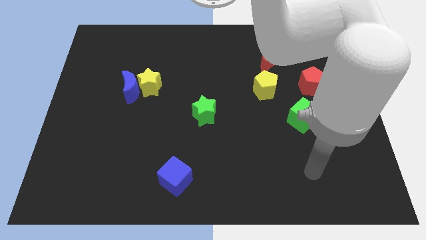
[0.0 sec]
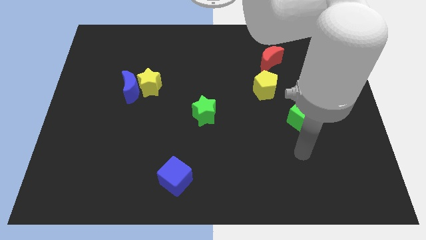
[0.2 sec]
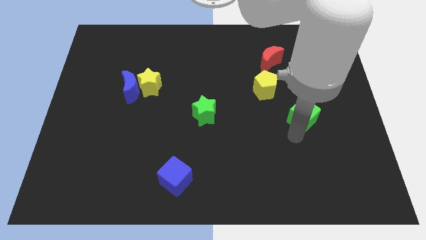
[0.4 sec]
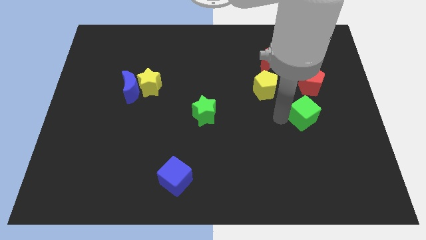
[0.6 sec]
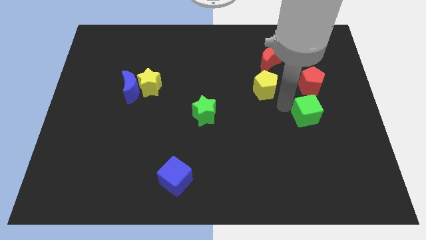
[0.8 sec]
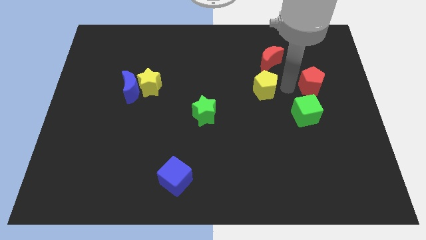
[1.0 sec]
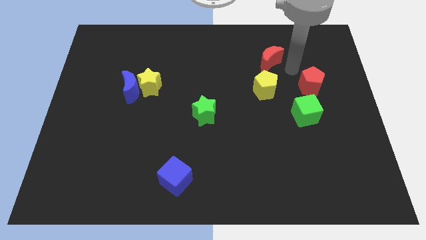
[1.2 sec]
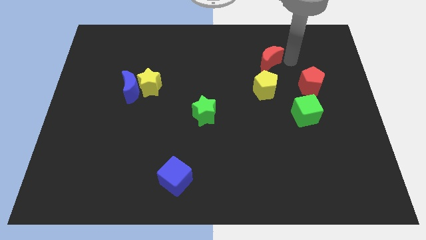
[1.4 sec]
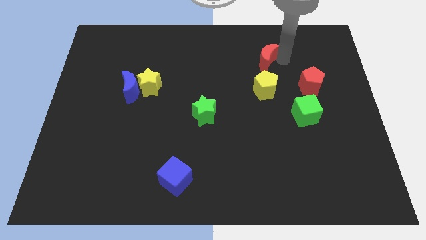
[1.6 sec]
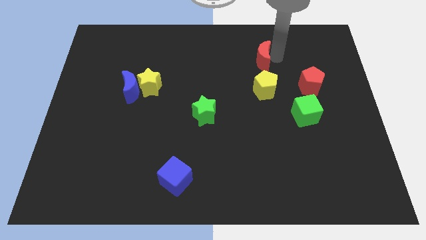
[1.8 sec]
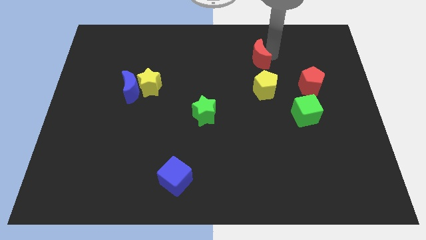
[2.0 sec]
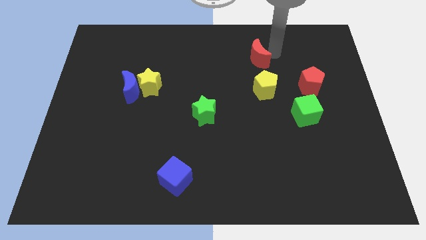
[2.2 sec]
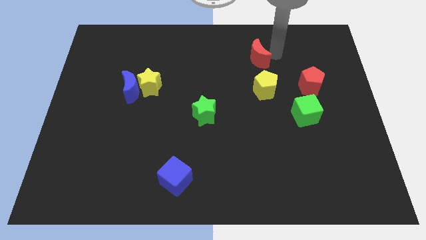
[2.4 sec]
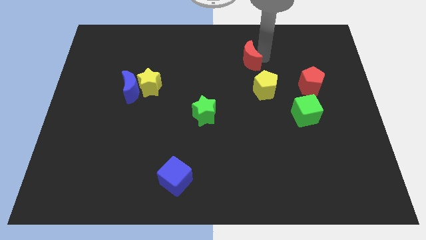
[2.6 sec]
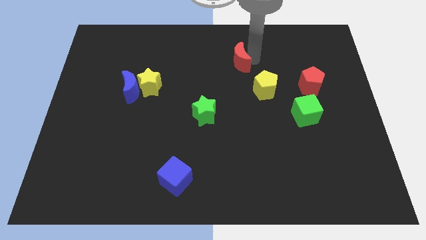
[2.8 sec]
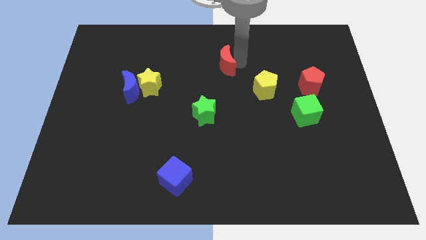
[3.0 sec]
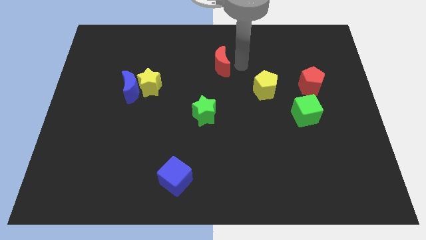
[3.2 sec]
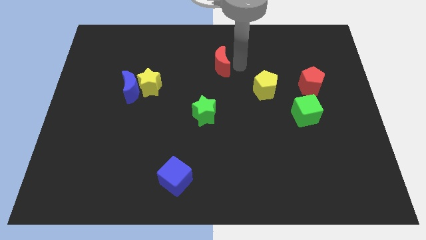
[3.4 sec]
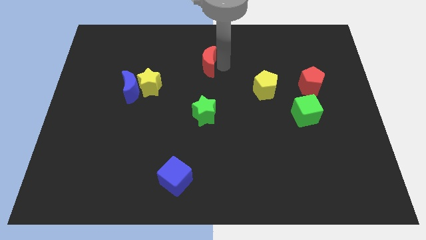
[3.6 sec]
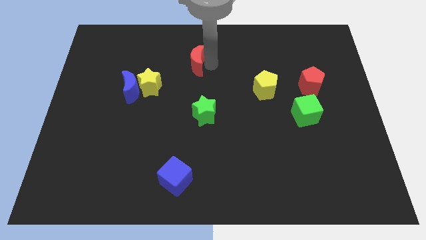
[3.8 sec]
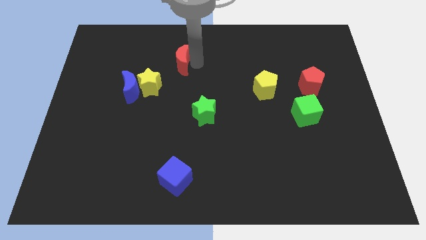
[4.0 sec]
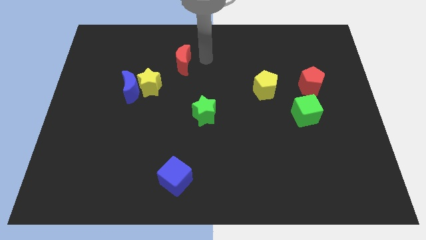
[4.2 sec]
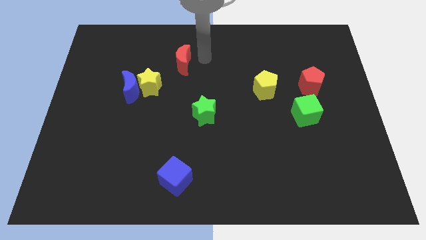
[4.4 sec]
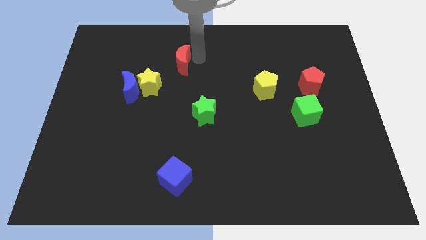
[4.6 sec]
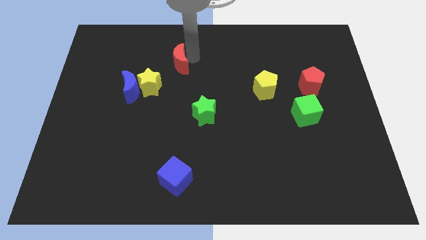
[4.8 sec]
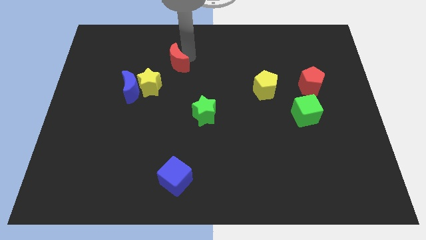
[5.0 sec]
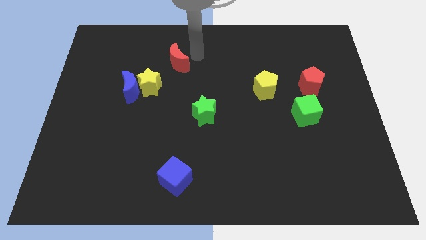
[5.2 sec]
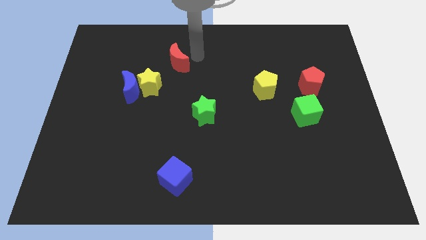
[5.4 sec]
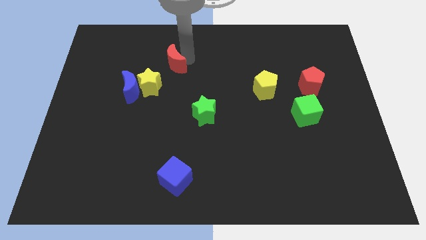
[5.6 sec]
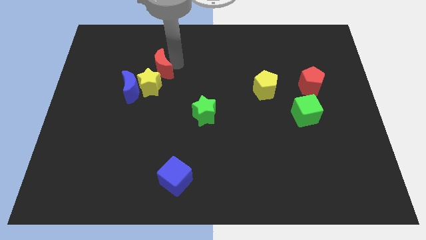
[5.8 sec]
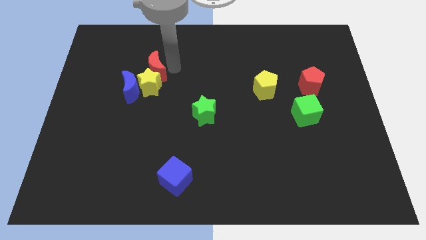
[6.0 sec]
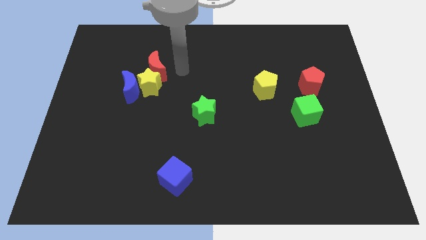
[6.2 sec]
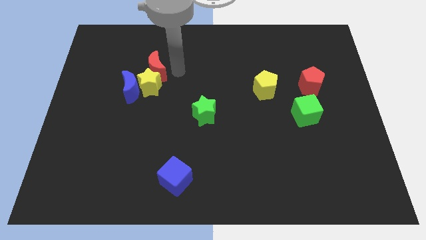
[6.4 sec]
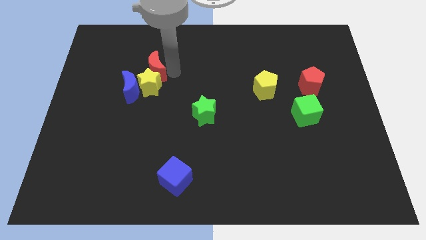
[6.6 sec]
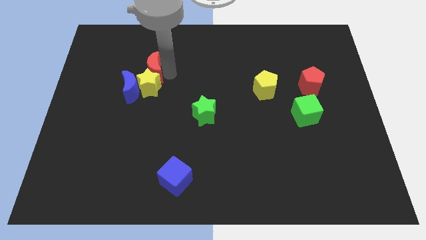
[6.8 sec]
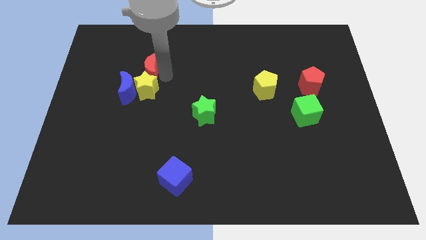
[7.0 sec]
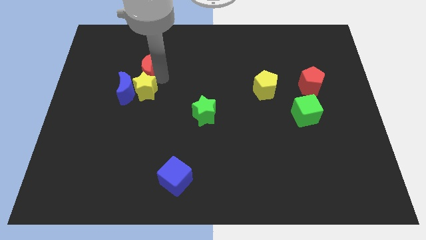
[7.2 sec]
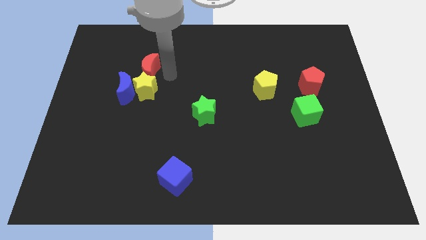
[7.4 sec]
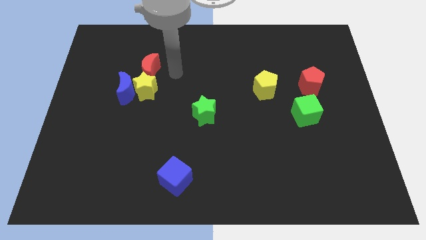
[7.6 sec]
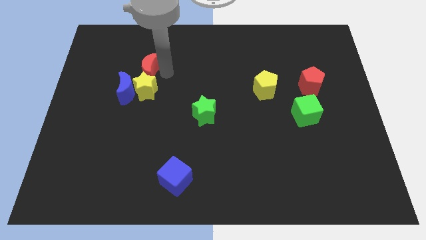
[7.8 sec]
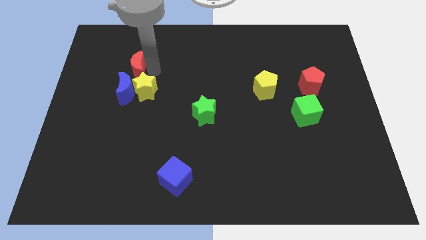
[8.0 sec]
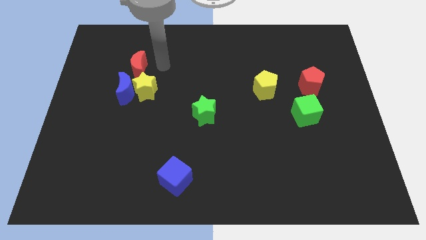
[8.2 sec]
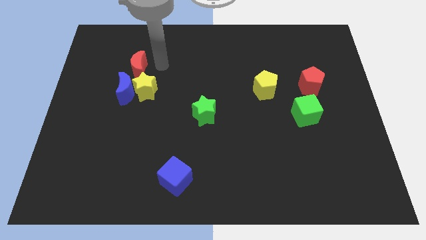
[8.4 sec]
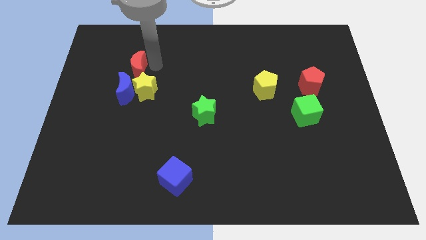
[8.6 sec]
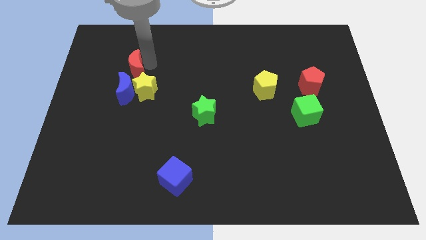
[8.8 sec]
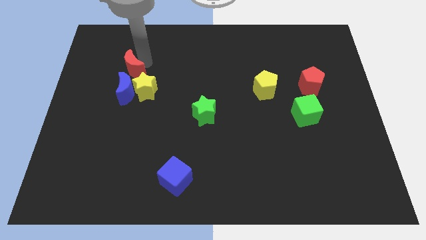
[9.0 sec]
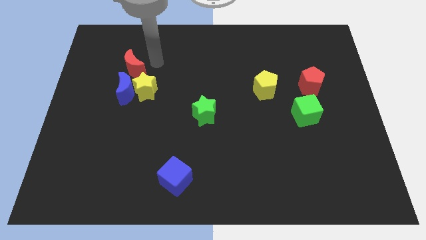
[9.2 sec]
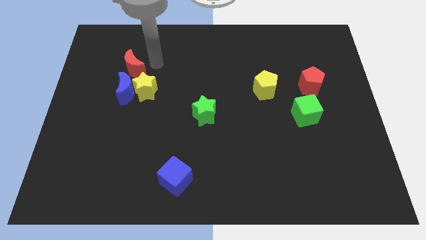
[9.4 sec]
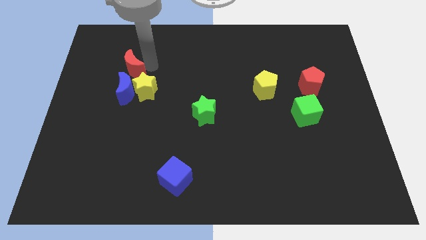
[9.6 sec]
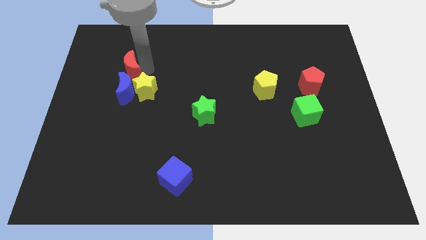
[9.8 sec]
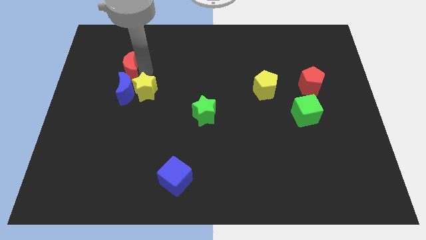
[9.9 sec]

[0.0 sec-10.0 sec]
put the red moon to the top left of the blue moon
